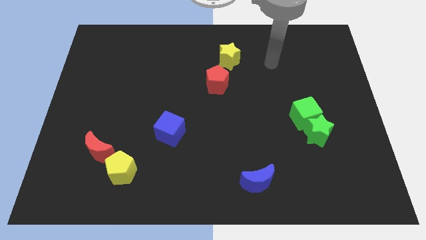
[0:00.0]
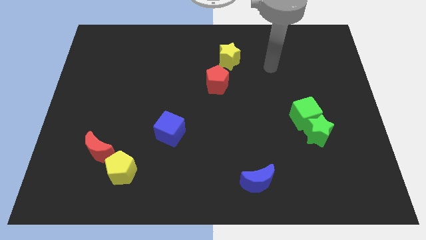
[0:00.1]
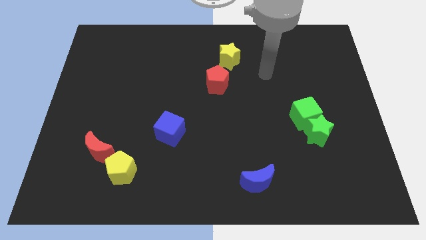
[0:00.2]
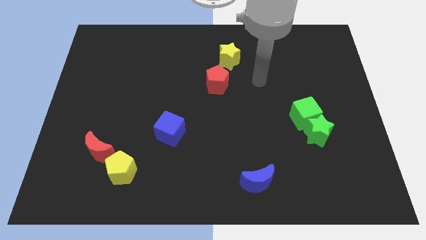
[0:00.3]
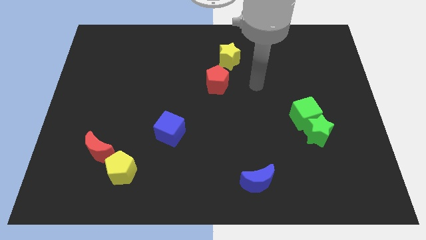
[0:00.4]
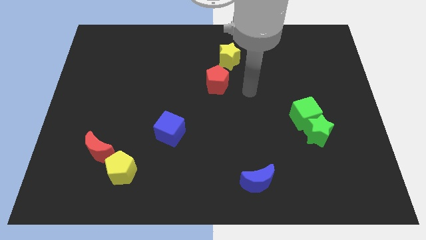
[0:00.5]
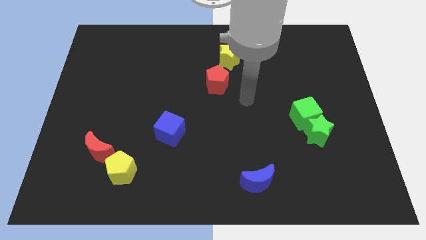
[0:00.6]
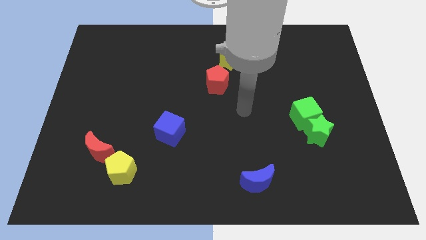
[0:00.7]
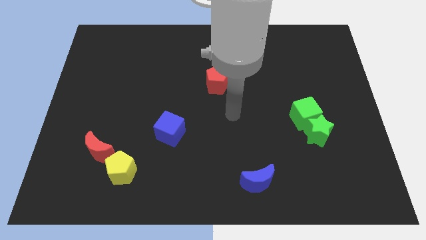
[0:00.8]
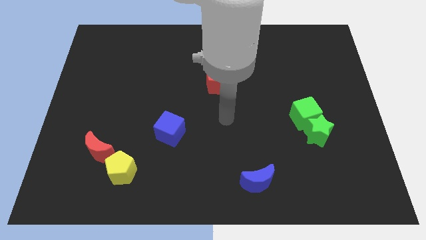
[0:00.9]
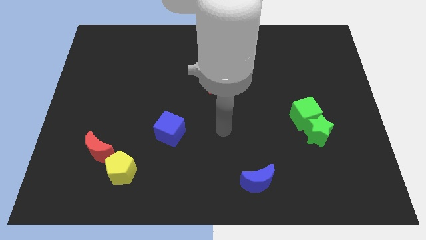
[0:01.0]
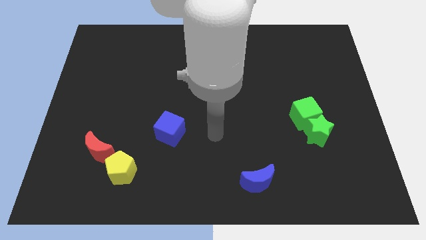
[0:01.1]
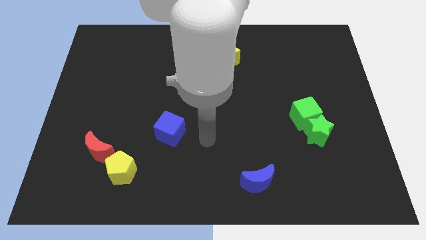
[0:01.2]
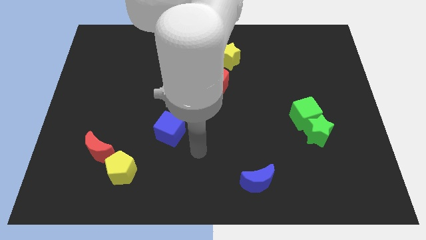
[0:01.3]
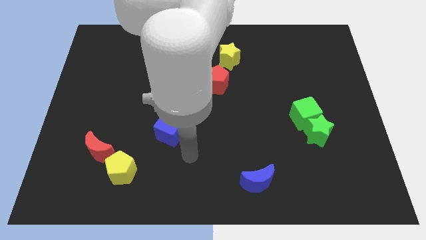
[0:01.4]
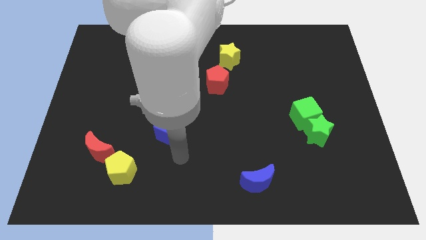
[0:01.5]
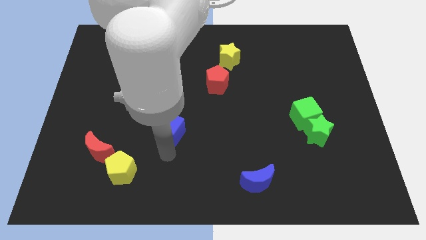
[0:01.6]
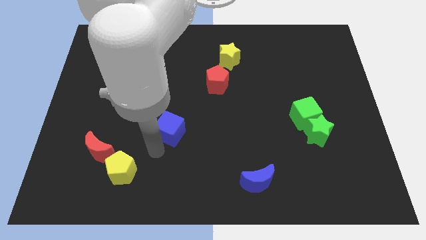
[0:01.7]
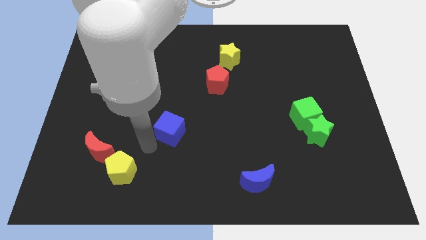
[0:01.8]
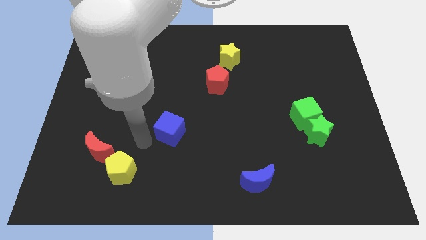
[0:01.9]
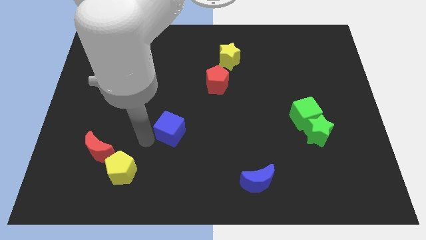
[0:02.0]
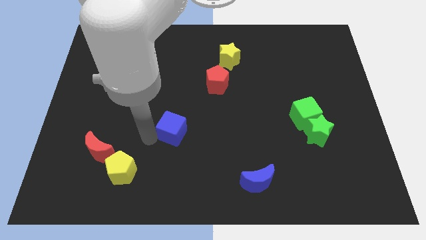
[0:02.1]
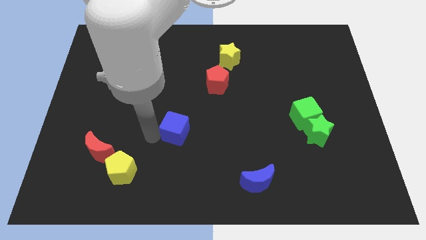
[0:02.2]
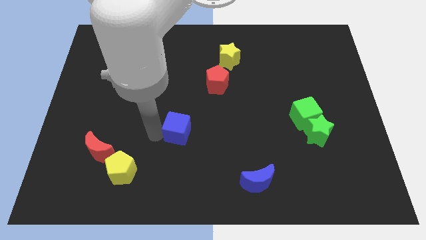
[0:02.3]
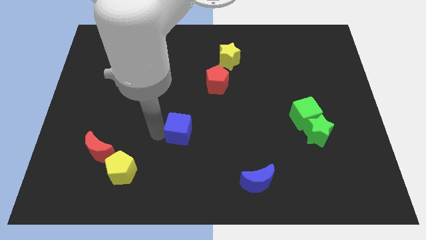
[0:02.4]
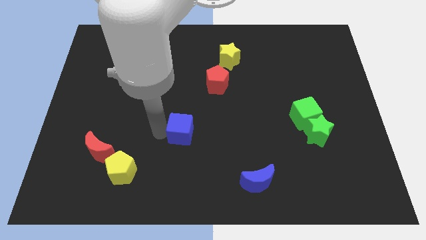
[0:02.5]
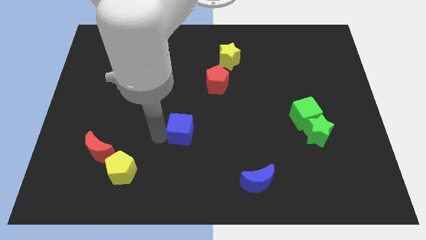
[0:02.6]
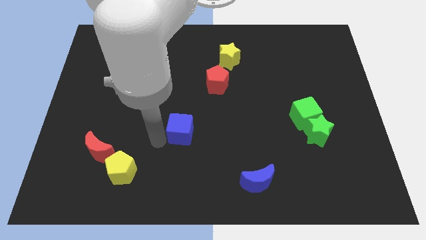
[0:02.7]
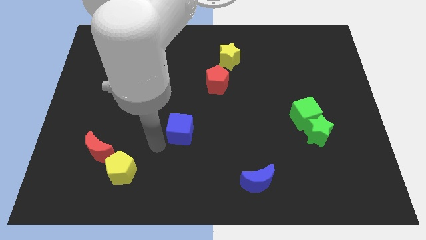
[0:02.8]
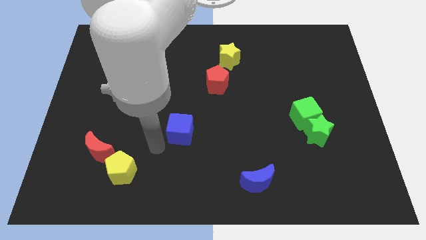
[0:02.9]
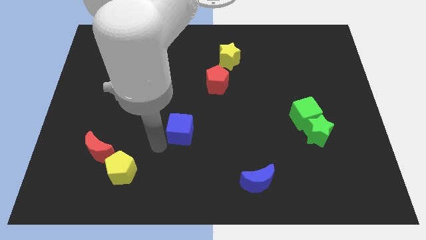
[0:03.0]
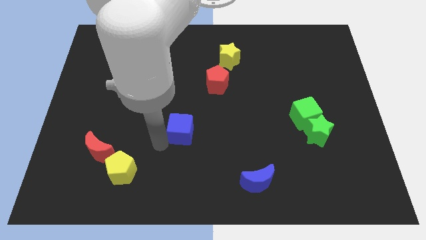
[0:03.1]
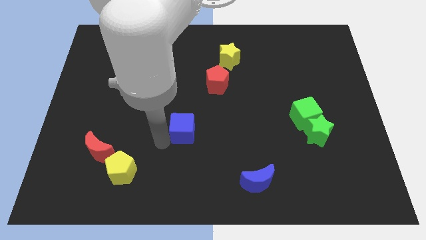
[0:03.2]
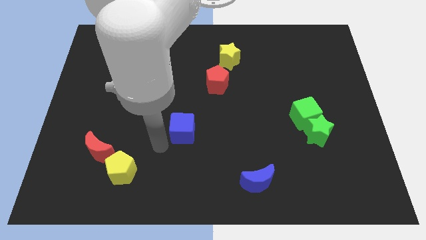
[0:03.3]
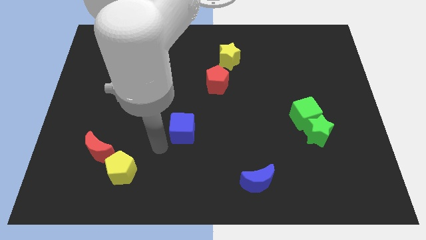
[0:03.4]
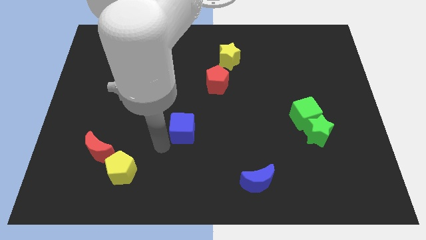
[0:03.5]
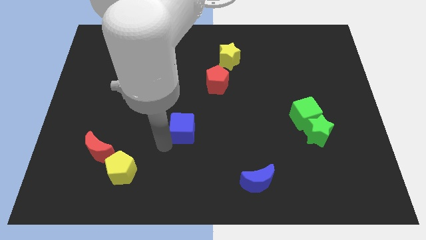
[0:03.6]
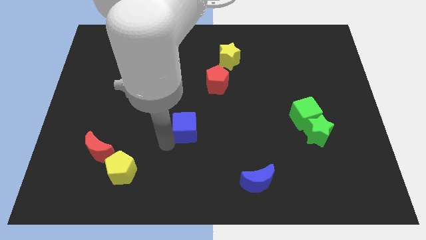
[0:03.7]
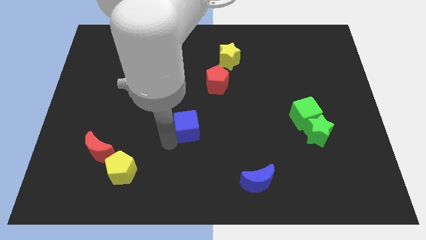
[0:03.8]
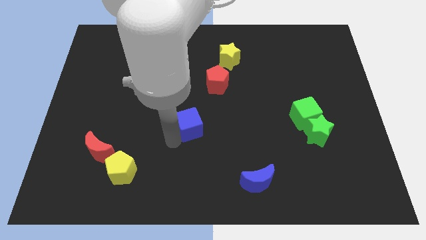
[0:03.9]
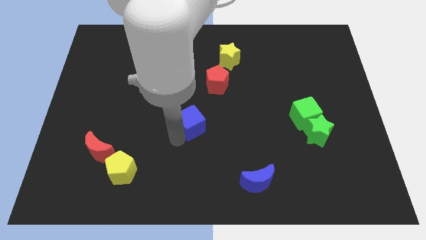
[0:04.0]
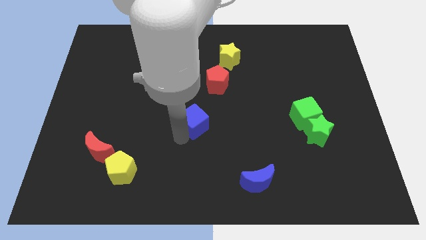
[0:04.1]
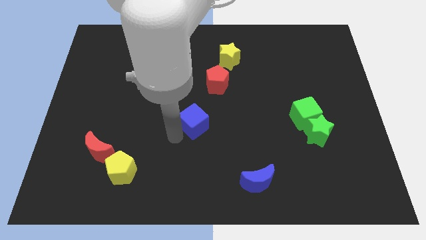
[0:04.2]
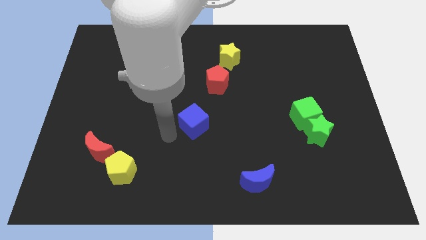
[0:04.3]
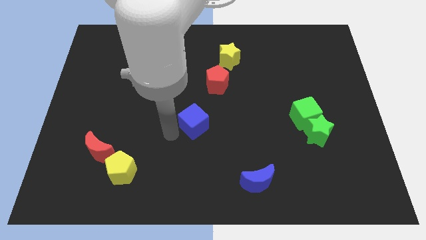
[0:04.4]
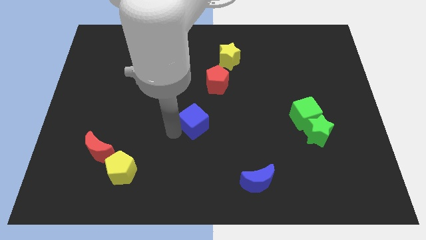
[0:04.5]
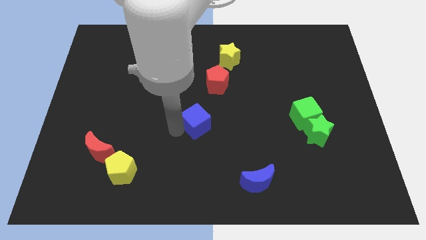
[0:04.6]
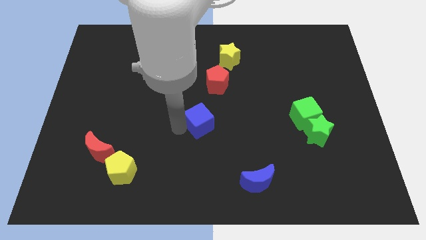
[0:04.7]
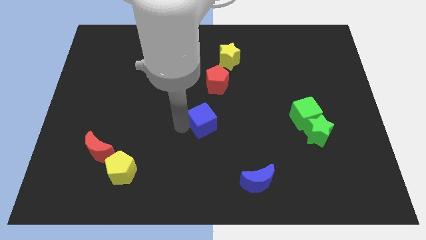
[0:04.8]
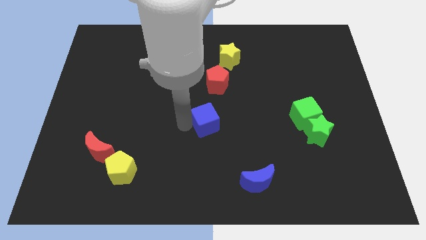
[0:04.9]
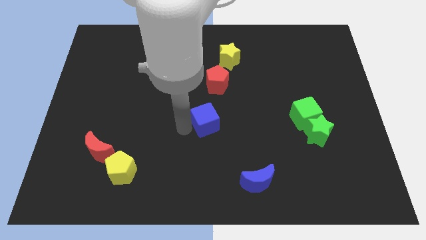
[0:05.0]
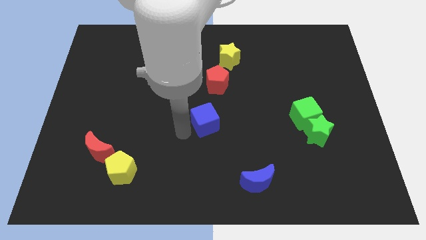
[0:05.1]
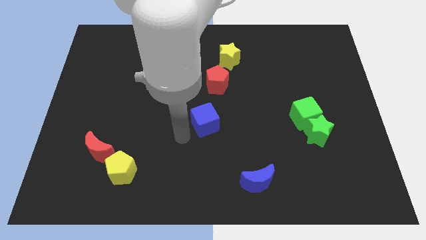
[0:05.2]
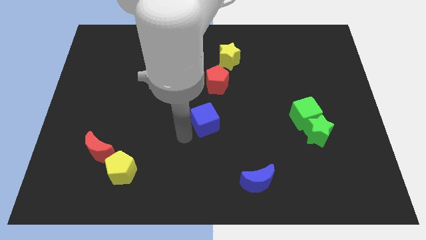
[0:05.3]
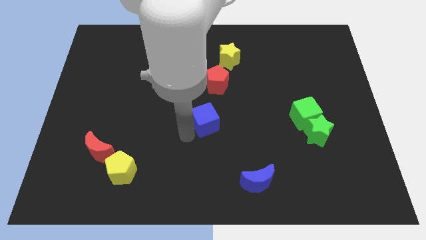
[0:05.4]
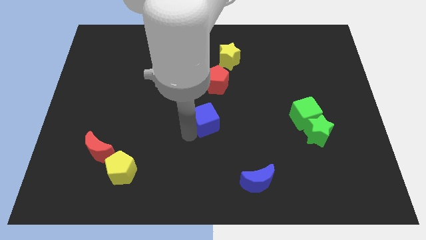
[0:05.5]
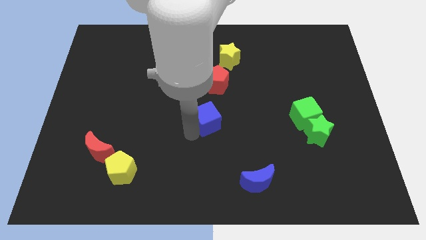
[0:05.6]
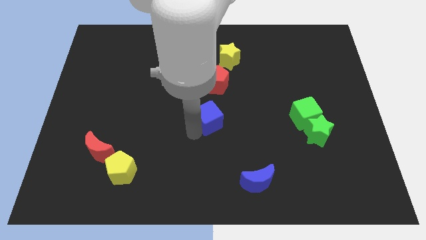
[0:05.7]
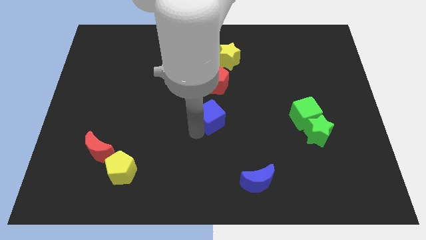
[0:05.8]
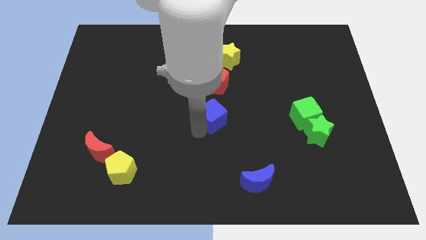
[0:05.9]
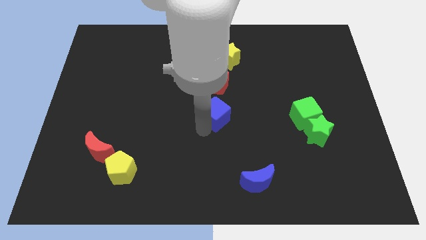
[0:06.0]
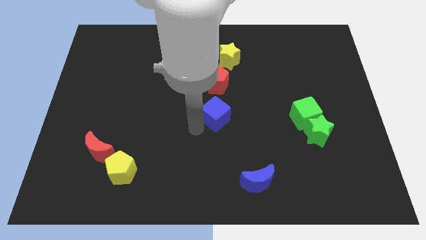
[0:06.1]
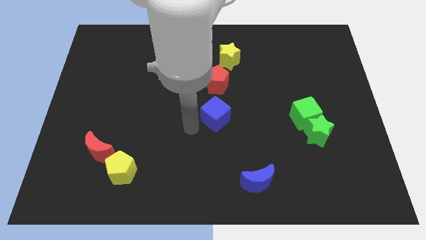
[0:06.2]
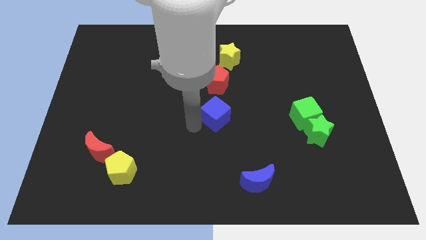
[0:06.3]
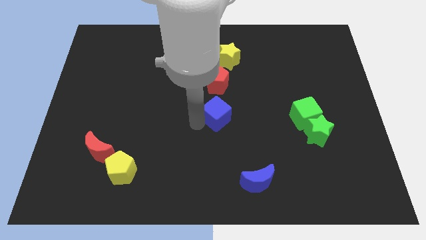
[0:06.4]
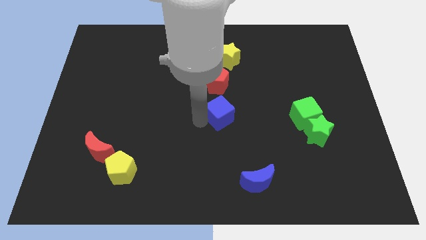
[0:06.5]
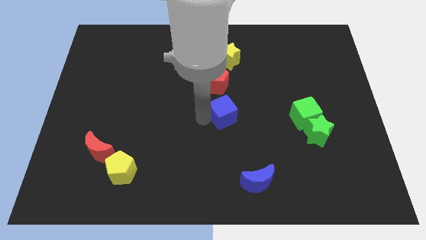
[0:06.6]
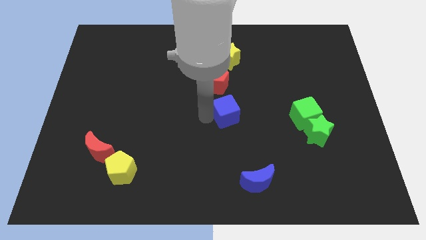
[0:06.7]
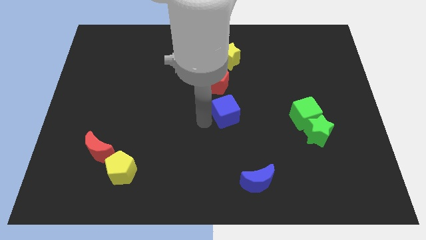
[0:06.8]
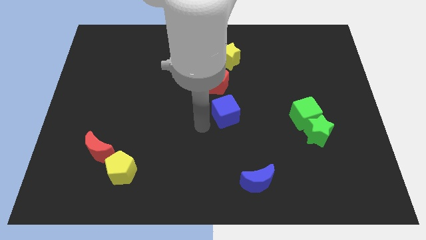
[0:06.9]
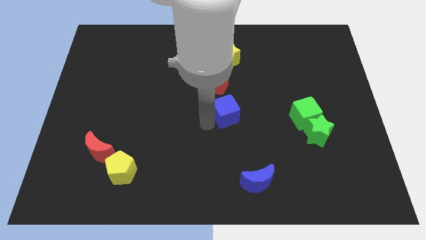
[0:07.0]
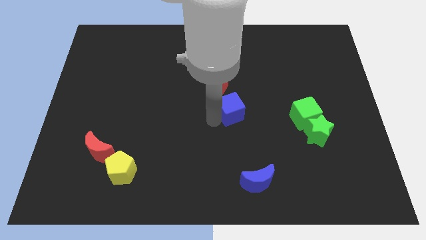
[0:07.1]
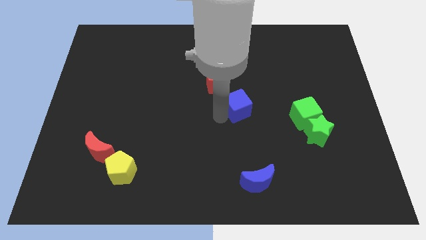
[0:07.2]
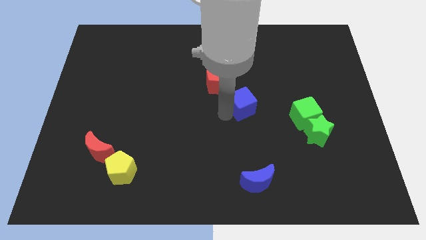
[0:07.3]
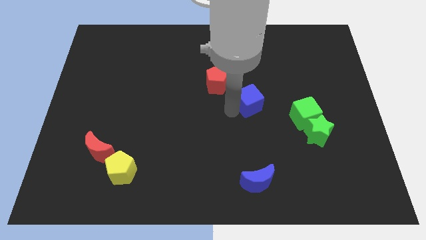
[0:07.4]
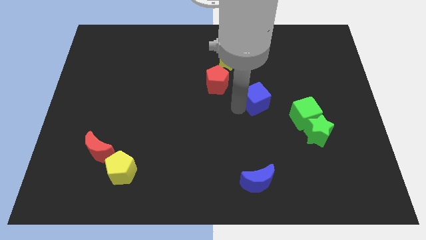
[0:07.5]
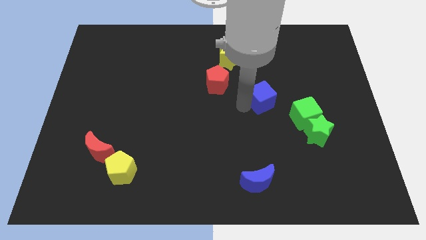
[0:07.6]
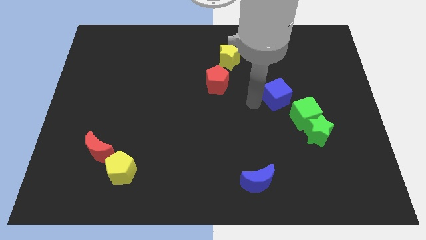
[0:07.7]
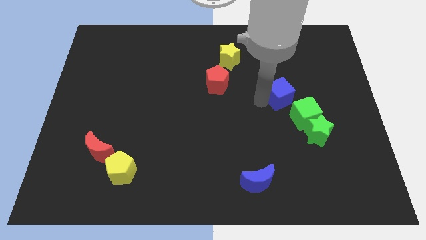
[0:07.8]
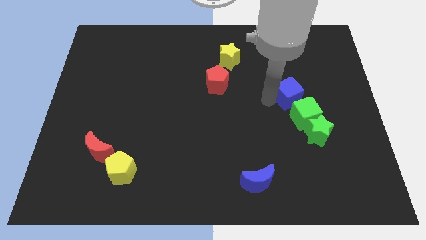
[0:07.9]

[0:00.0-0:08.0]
put the blue cube to the top side of the green cube
